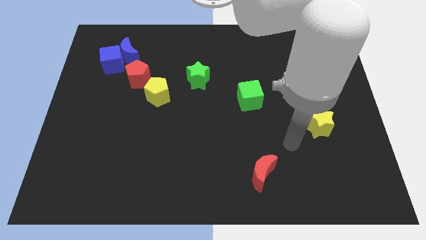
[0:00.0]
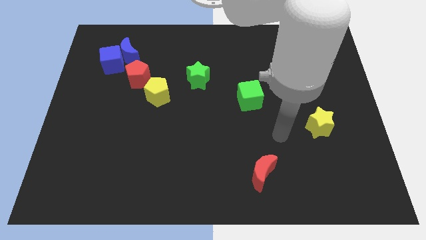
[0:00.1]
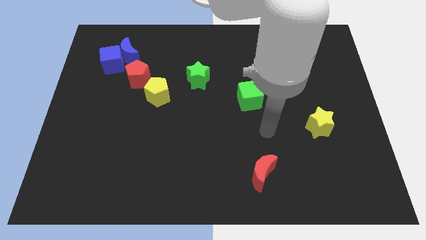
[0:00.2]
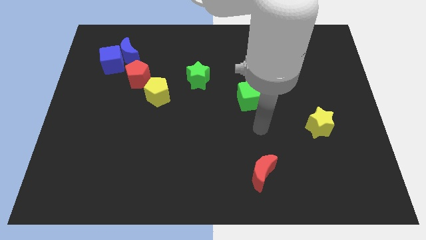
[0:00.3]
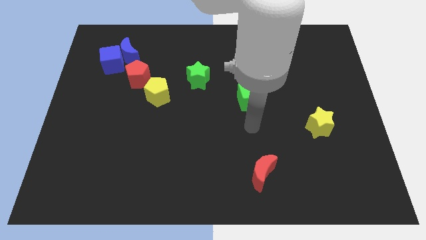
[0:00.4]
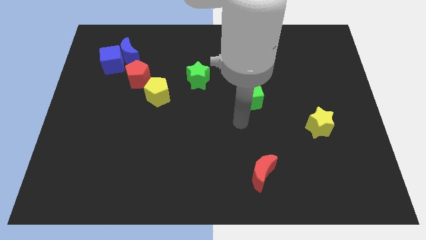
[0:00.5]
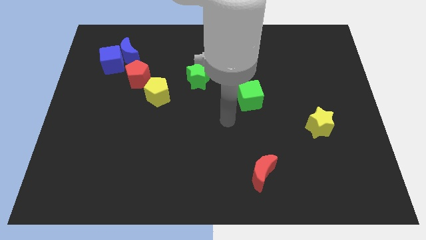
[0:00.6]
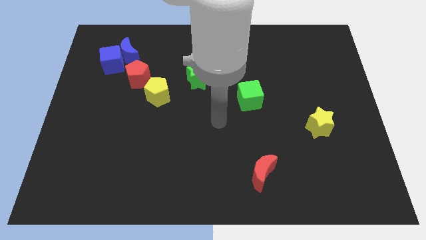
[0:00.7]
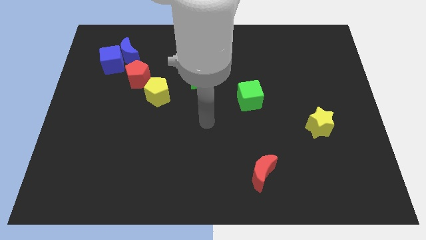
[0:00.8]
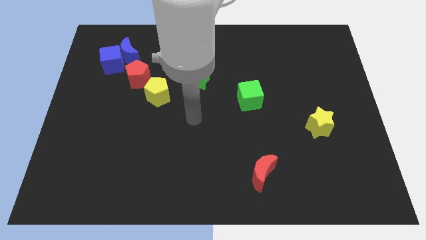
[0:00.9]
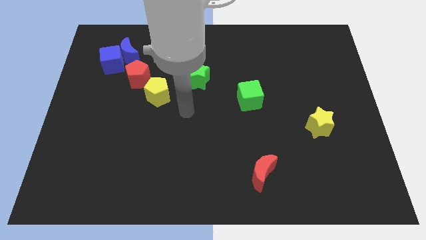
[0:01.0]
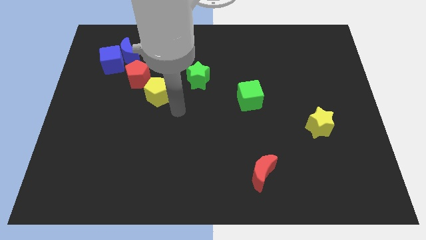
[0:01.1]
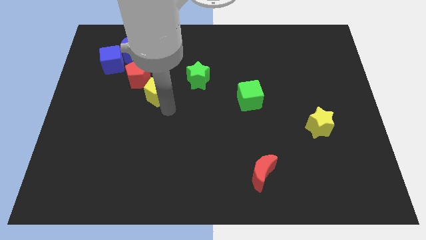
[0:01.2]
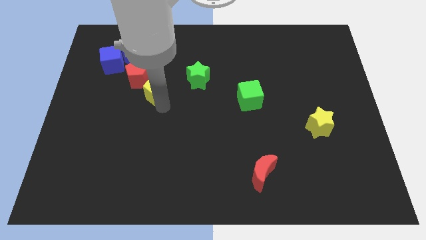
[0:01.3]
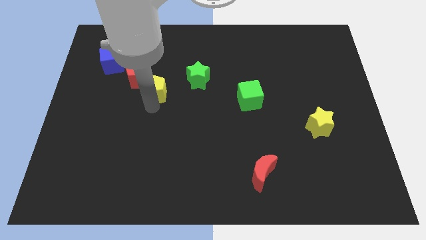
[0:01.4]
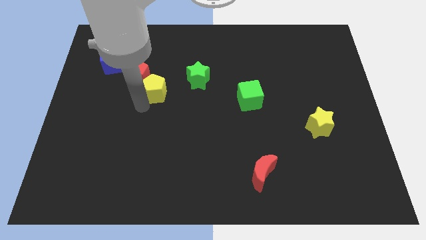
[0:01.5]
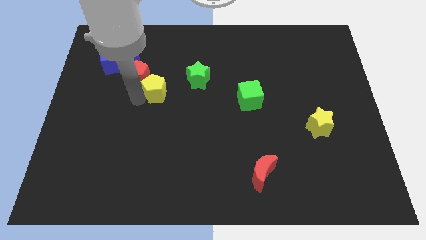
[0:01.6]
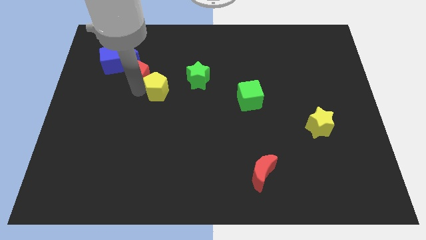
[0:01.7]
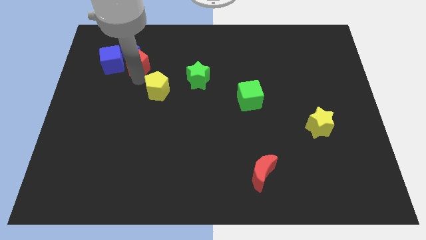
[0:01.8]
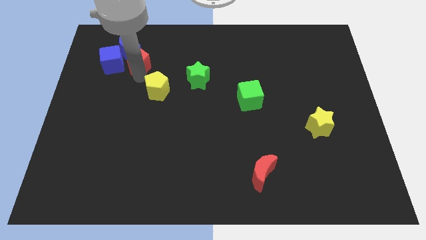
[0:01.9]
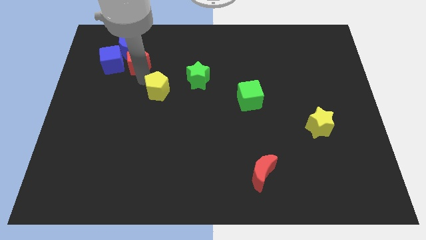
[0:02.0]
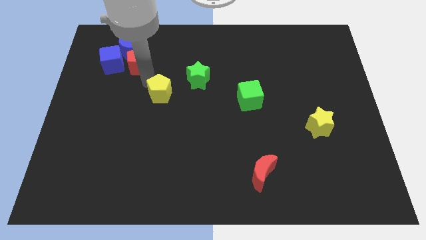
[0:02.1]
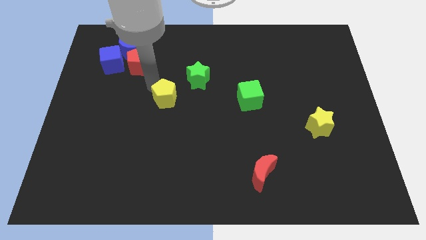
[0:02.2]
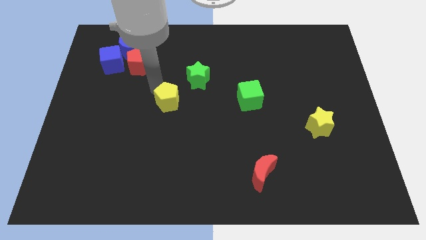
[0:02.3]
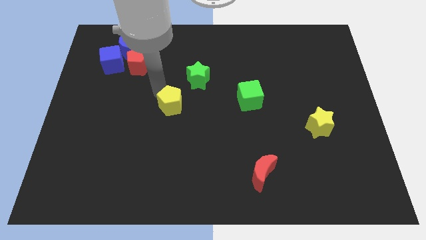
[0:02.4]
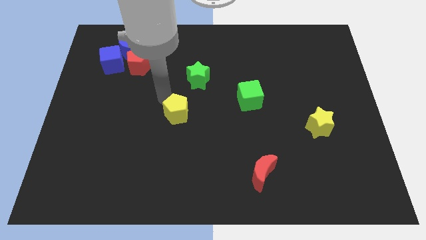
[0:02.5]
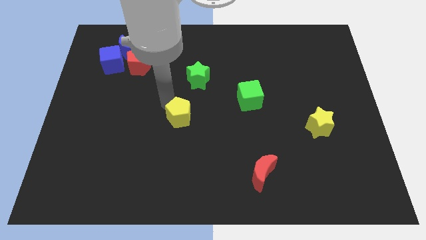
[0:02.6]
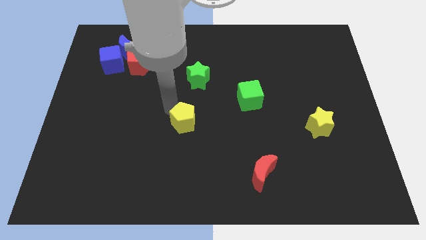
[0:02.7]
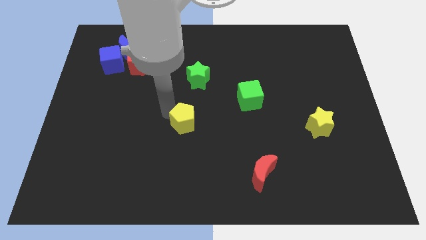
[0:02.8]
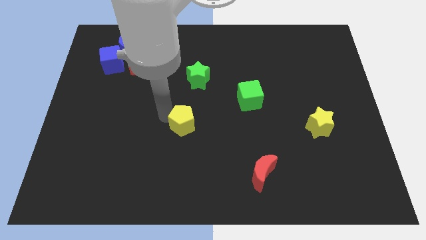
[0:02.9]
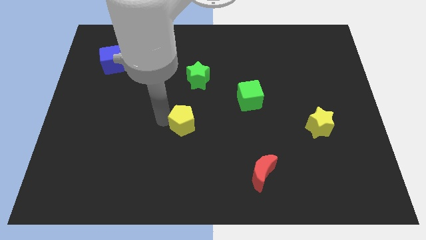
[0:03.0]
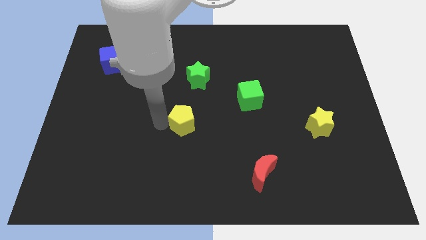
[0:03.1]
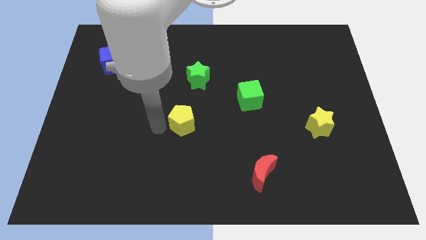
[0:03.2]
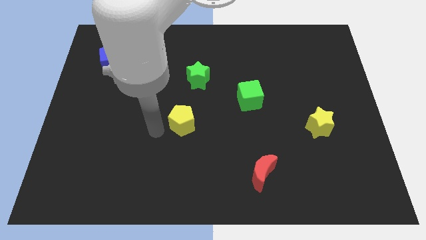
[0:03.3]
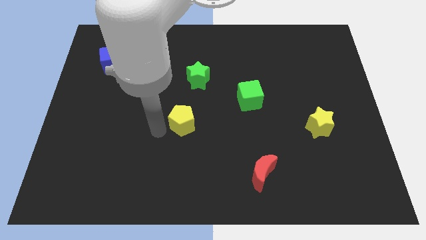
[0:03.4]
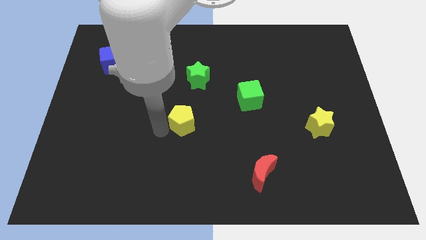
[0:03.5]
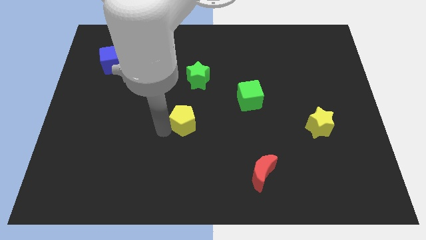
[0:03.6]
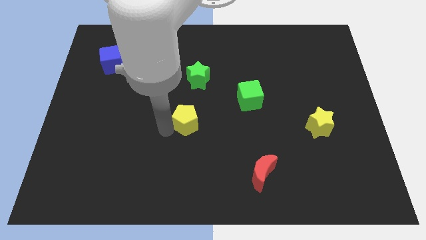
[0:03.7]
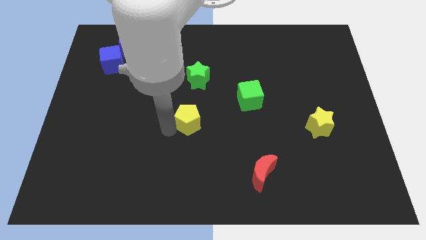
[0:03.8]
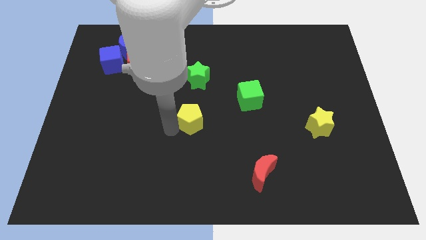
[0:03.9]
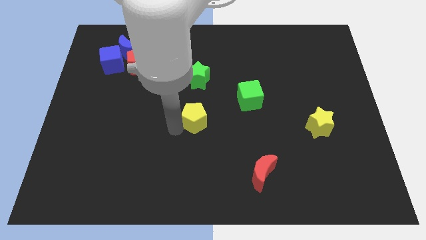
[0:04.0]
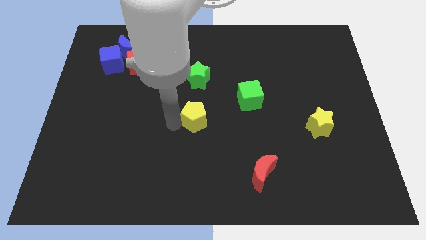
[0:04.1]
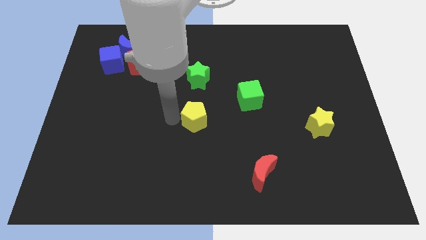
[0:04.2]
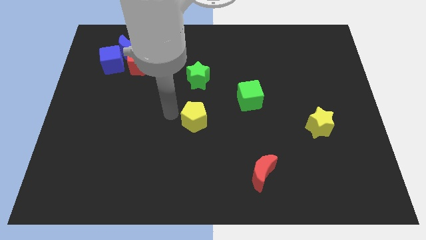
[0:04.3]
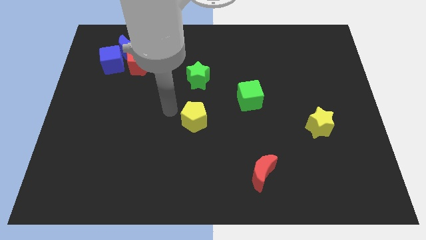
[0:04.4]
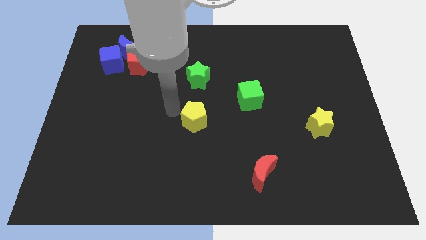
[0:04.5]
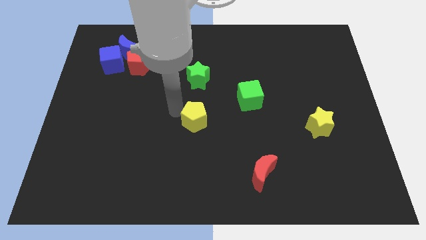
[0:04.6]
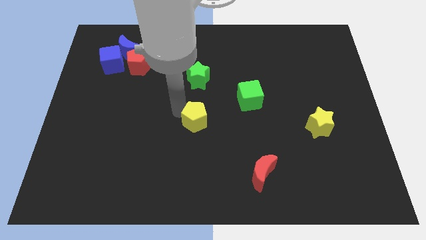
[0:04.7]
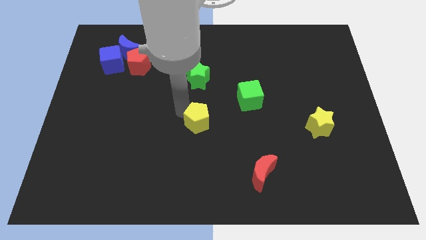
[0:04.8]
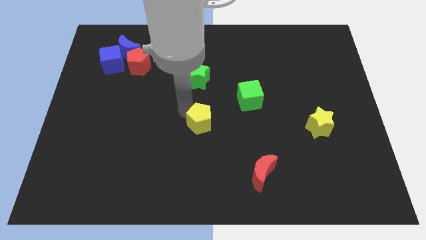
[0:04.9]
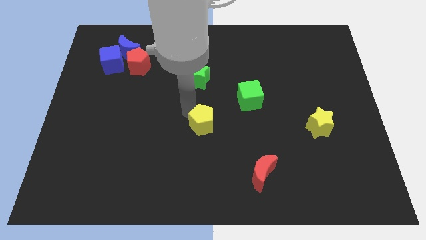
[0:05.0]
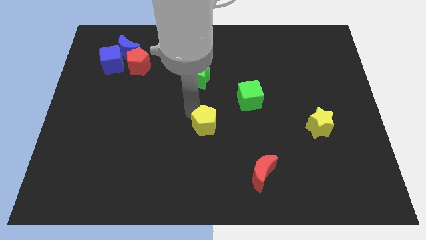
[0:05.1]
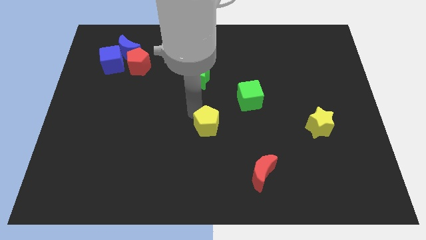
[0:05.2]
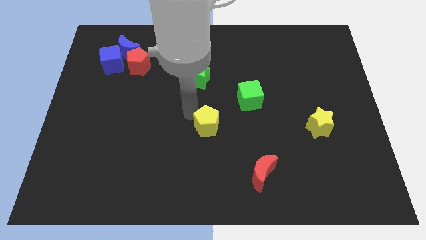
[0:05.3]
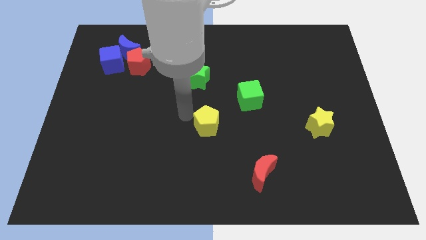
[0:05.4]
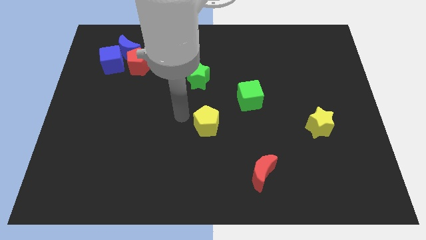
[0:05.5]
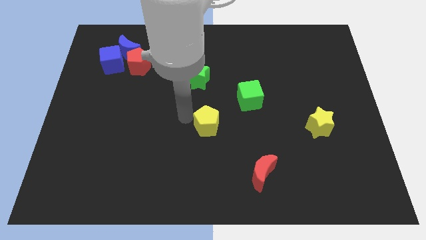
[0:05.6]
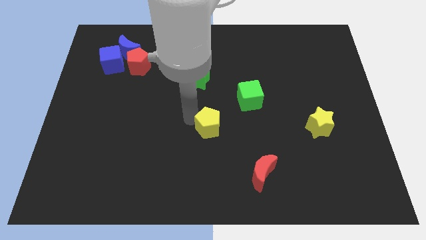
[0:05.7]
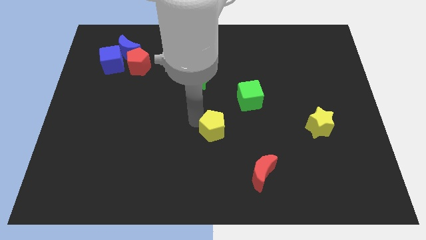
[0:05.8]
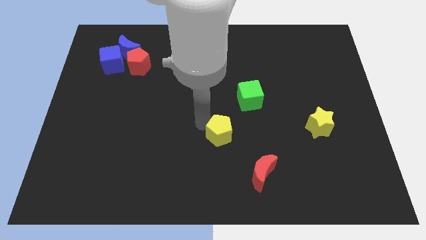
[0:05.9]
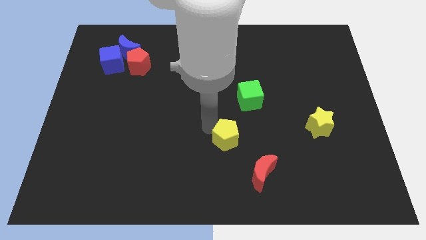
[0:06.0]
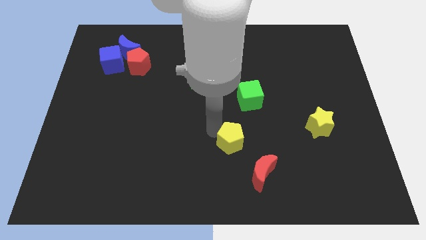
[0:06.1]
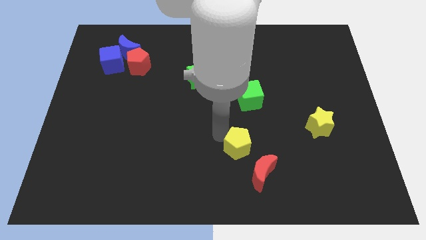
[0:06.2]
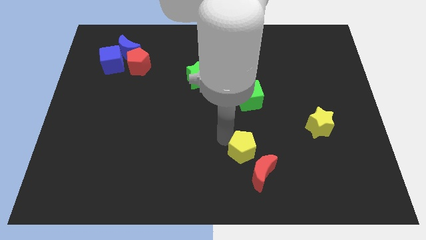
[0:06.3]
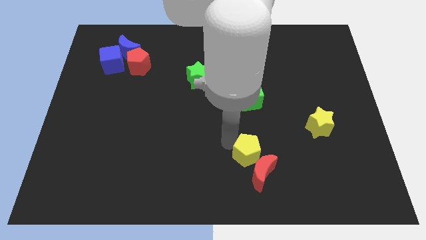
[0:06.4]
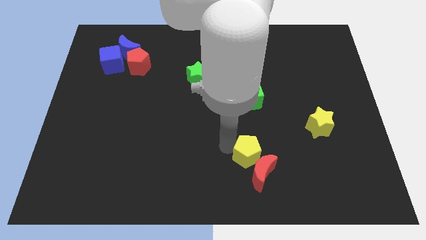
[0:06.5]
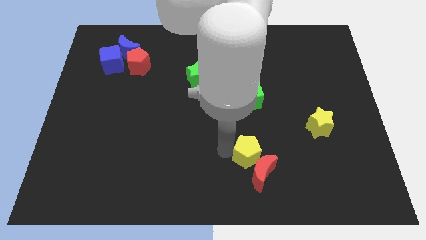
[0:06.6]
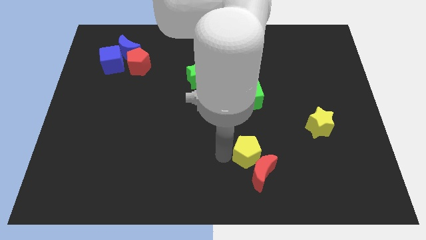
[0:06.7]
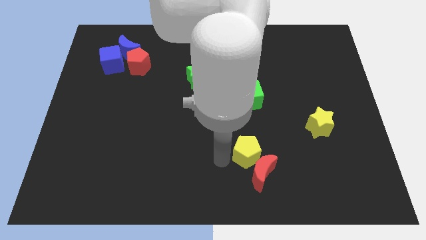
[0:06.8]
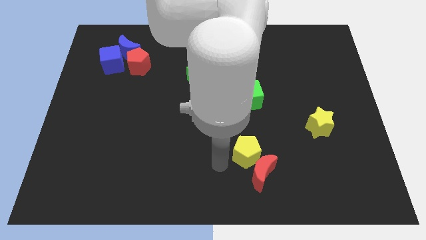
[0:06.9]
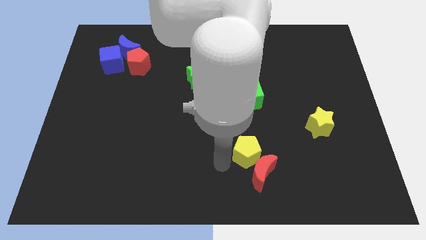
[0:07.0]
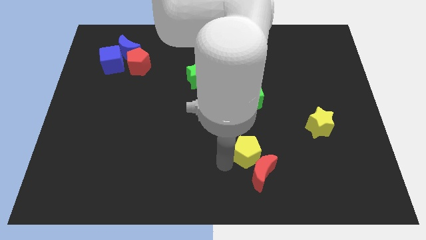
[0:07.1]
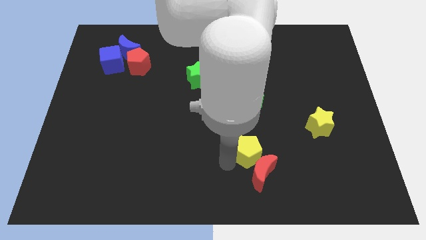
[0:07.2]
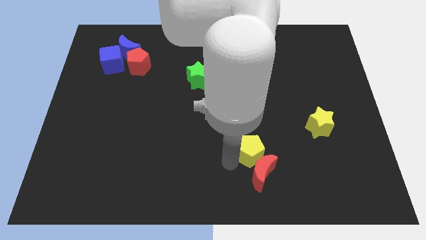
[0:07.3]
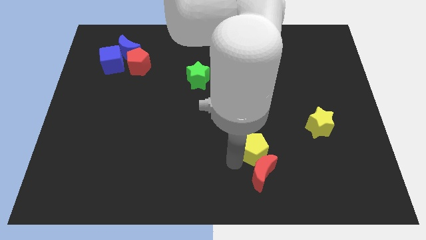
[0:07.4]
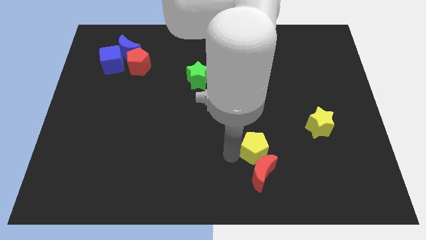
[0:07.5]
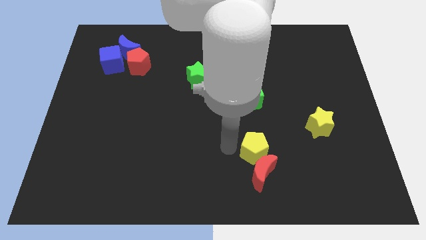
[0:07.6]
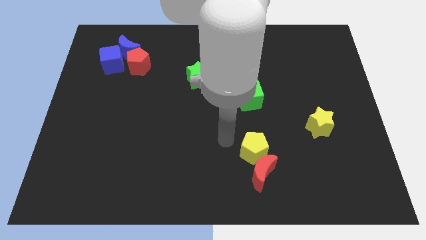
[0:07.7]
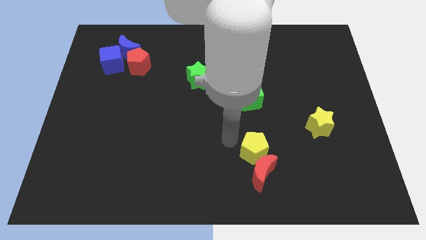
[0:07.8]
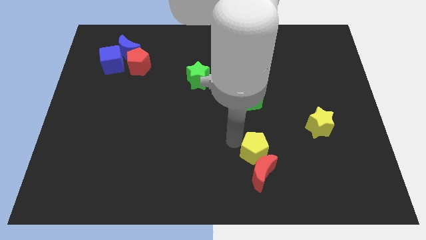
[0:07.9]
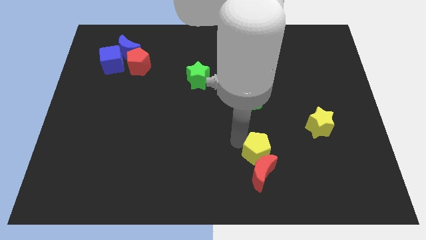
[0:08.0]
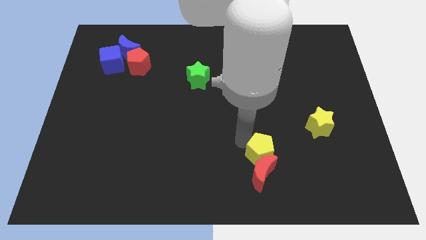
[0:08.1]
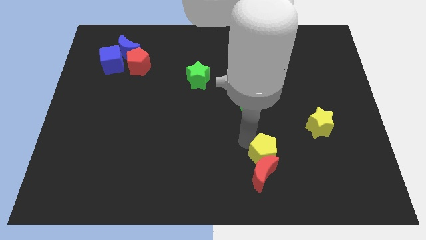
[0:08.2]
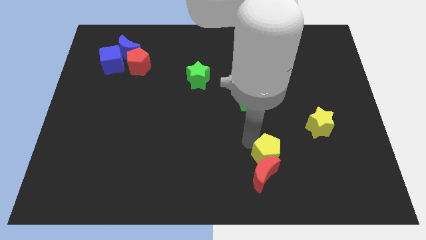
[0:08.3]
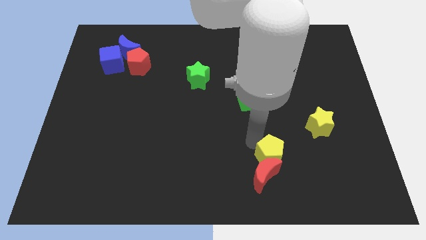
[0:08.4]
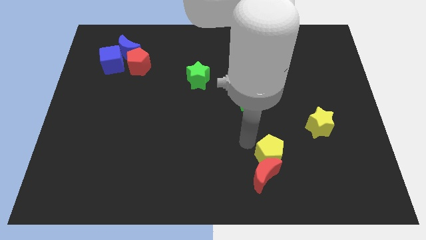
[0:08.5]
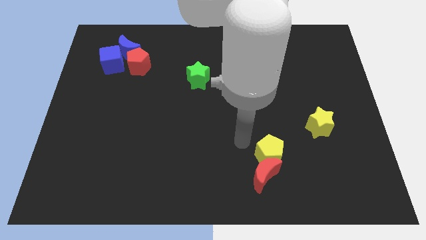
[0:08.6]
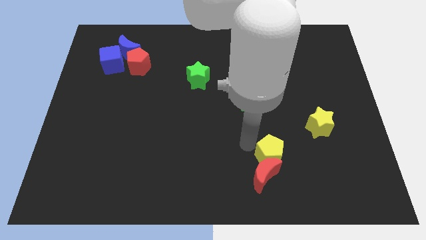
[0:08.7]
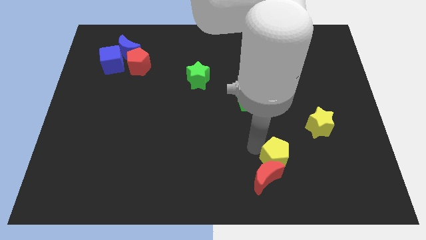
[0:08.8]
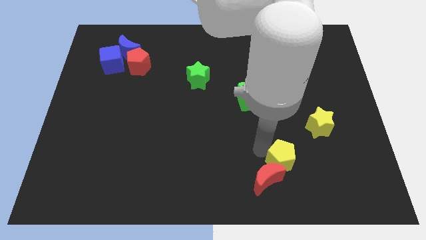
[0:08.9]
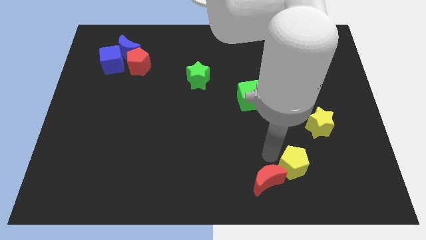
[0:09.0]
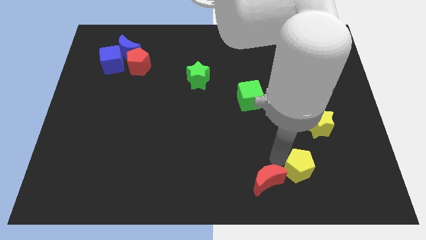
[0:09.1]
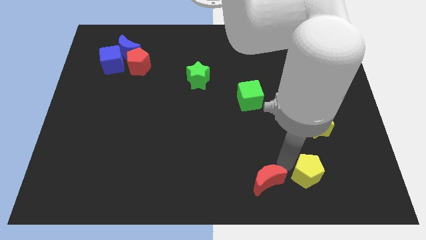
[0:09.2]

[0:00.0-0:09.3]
push the yellow pentagon to the bottom of the yellow star
